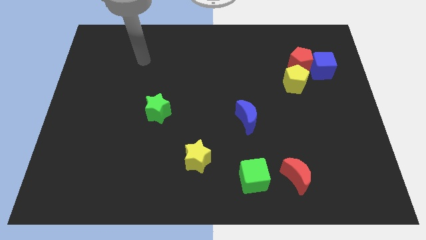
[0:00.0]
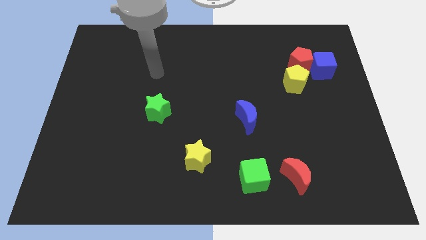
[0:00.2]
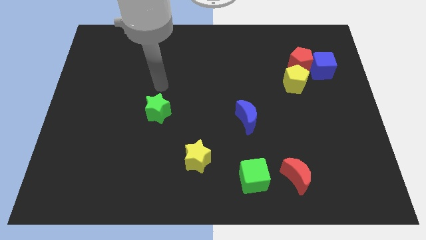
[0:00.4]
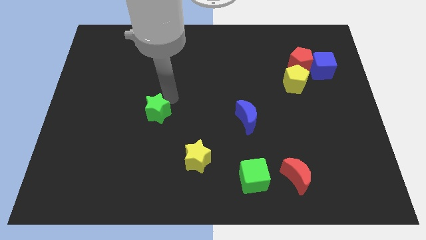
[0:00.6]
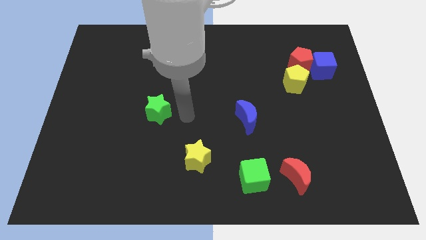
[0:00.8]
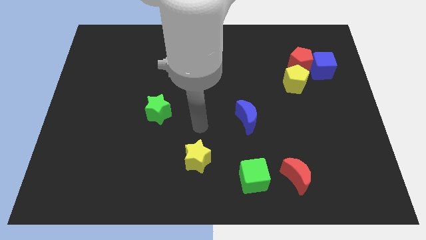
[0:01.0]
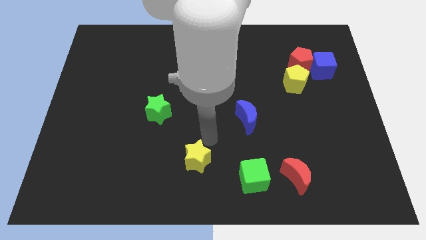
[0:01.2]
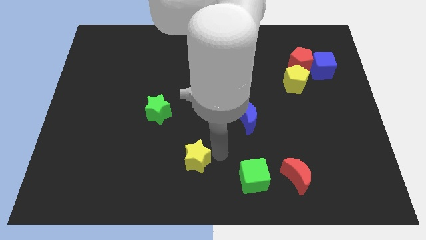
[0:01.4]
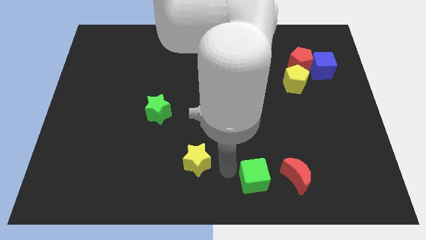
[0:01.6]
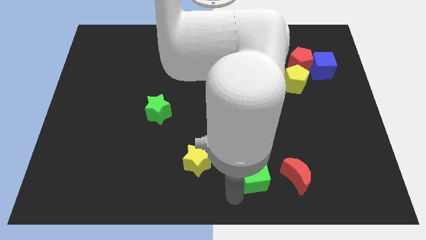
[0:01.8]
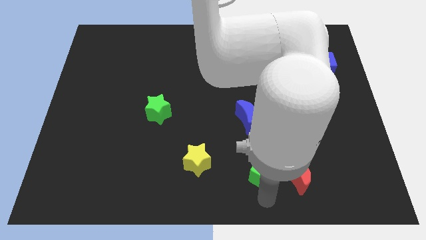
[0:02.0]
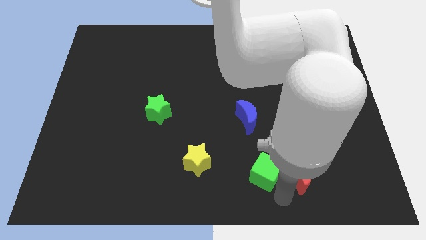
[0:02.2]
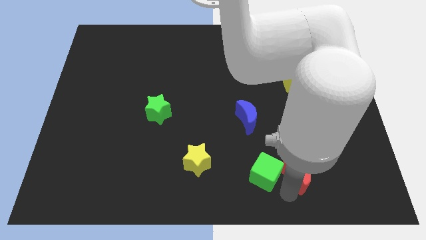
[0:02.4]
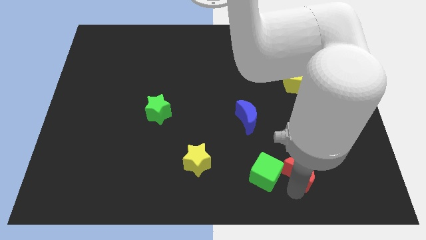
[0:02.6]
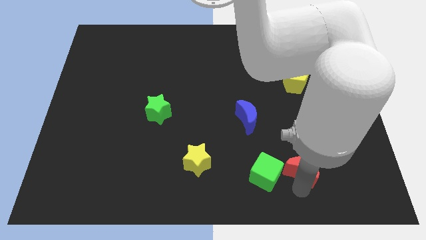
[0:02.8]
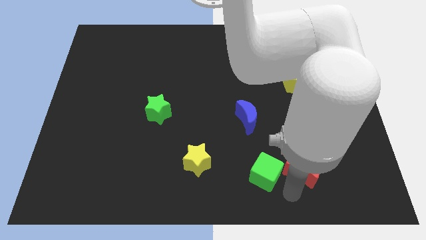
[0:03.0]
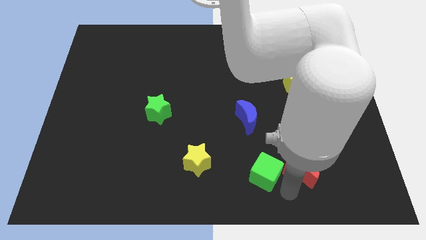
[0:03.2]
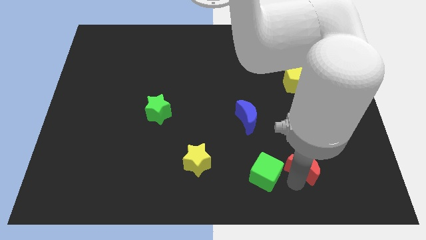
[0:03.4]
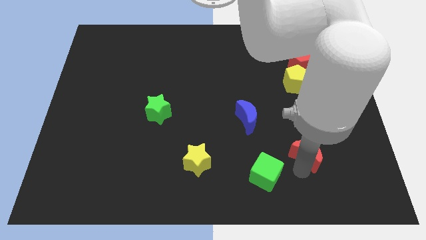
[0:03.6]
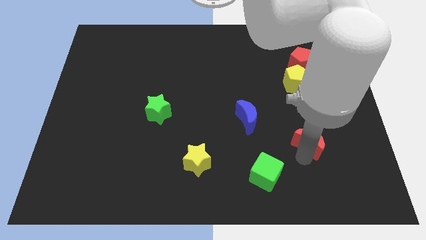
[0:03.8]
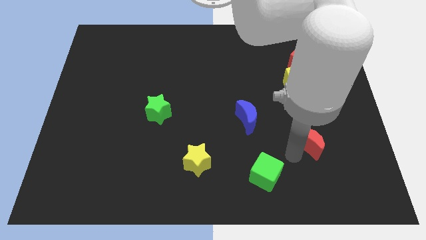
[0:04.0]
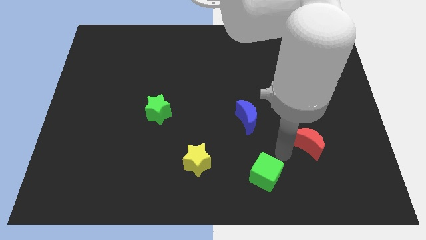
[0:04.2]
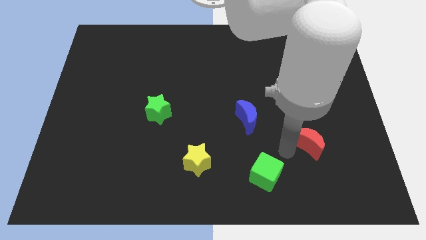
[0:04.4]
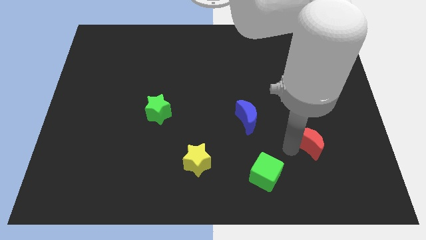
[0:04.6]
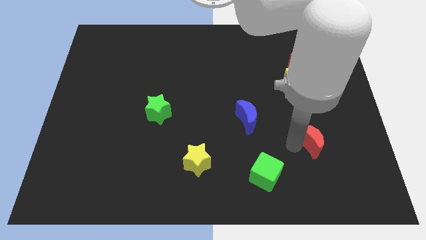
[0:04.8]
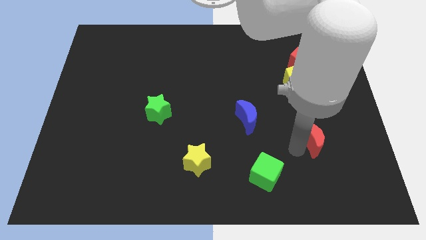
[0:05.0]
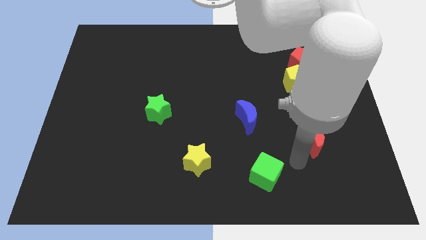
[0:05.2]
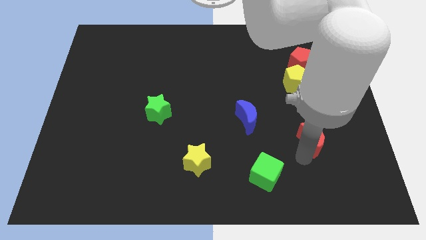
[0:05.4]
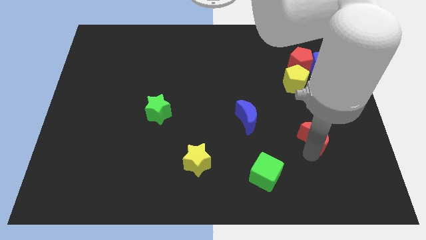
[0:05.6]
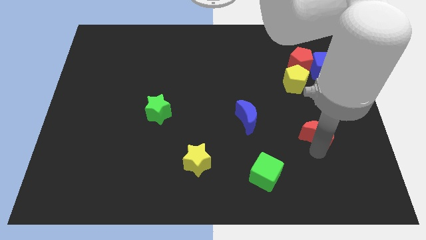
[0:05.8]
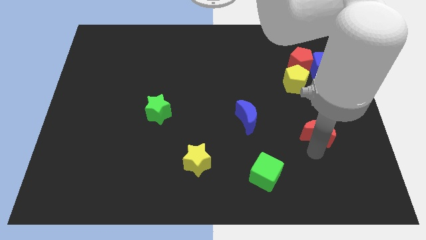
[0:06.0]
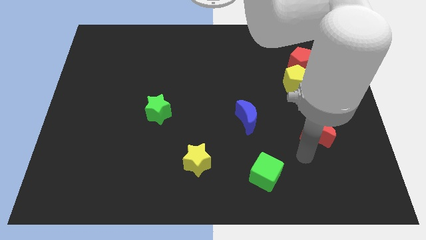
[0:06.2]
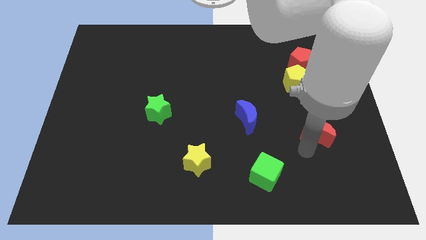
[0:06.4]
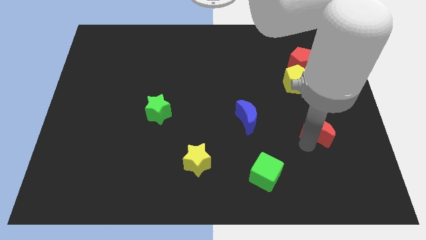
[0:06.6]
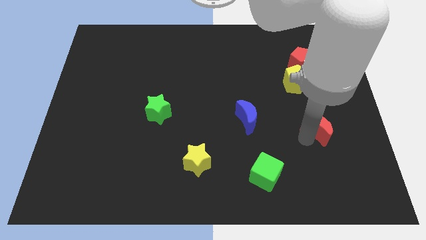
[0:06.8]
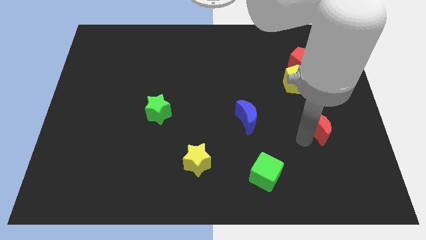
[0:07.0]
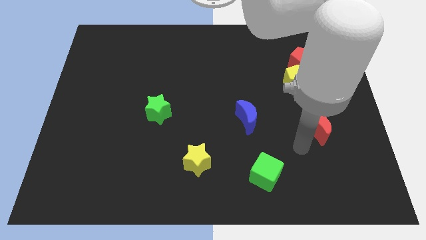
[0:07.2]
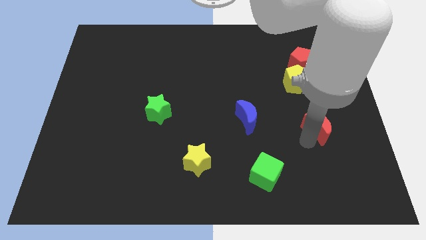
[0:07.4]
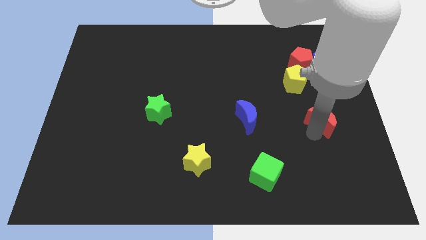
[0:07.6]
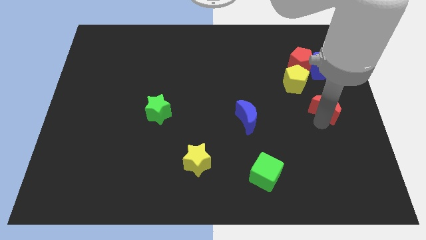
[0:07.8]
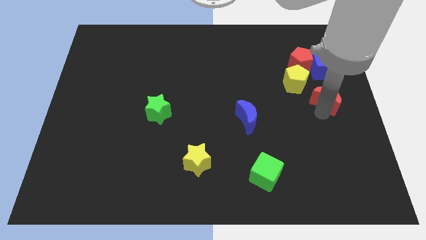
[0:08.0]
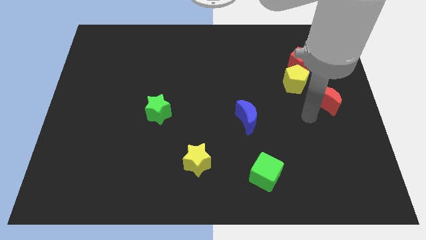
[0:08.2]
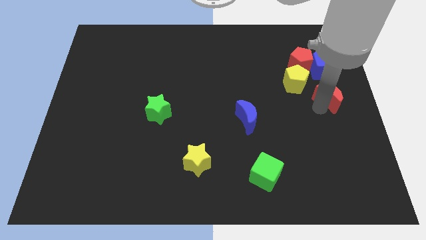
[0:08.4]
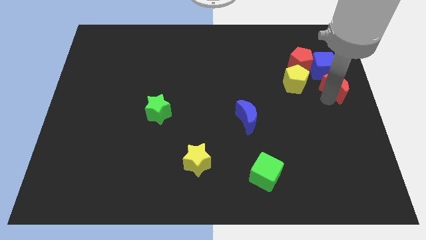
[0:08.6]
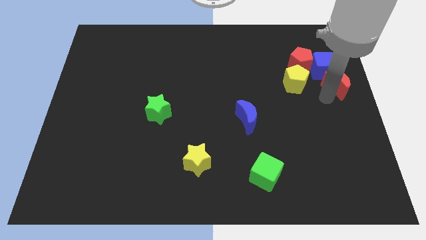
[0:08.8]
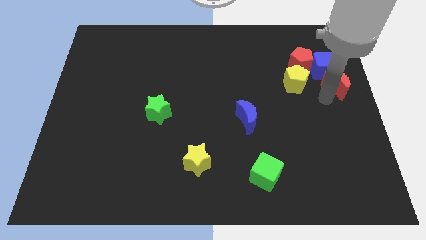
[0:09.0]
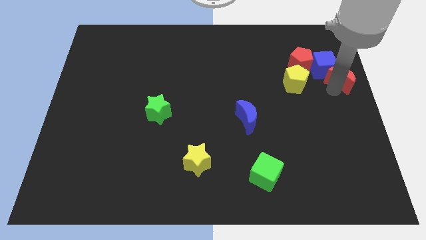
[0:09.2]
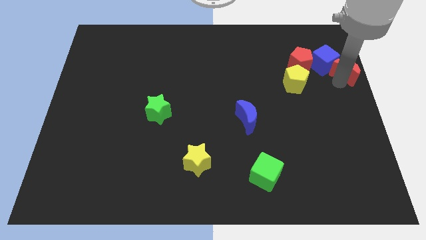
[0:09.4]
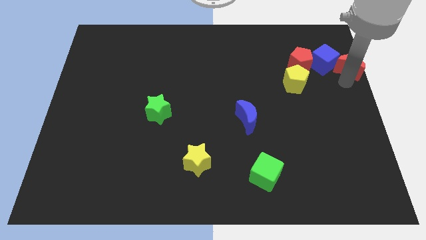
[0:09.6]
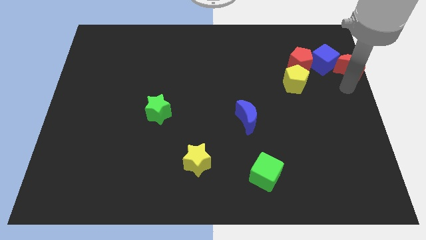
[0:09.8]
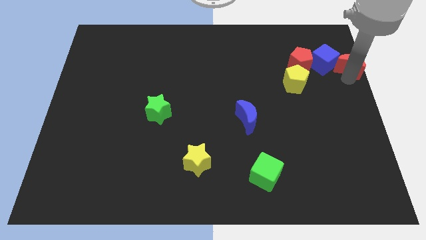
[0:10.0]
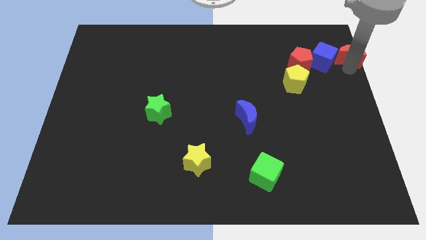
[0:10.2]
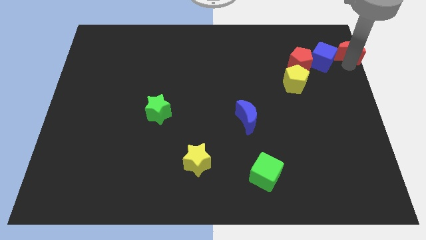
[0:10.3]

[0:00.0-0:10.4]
push the red moon to the upper right corner

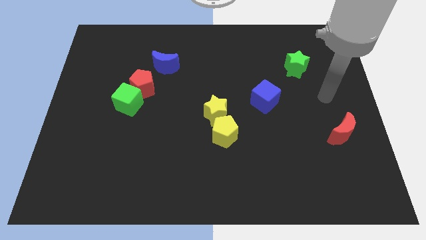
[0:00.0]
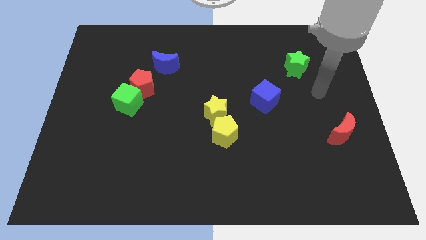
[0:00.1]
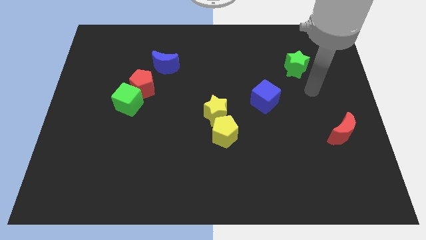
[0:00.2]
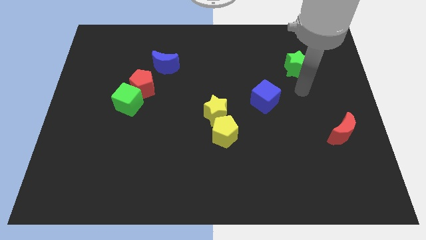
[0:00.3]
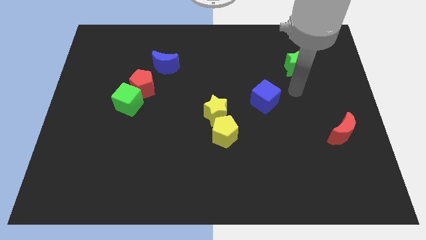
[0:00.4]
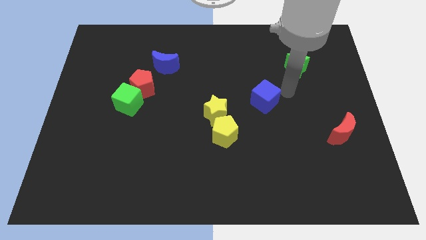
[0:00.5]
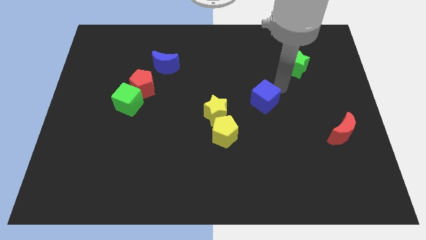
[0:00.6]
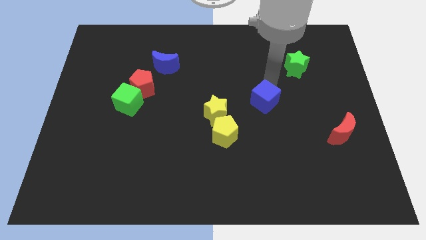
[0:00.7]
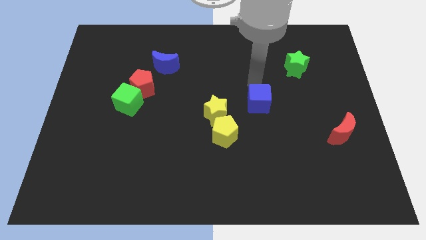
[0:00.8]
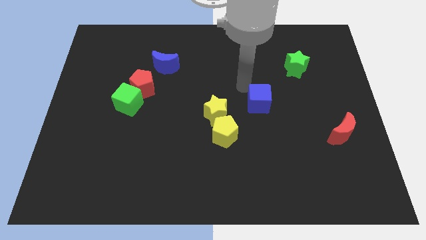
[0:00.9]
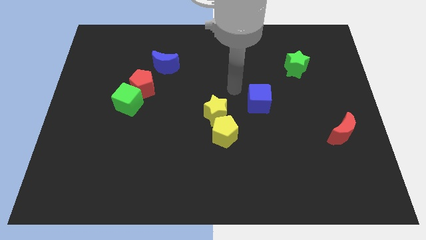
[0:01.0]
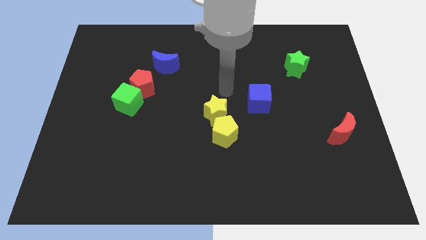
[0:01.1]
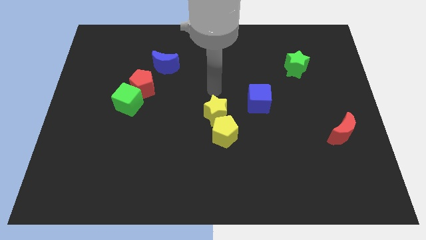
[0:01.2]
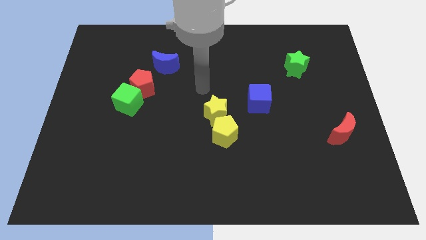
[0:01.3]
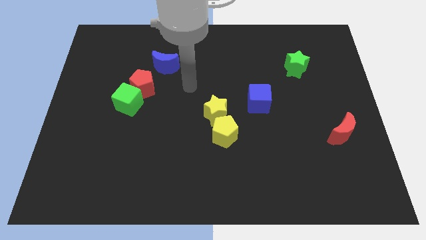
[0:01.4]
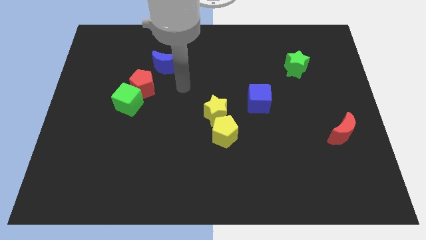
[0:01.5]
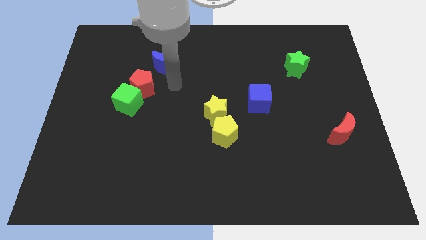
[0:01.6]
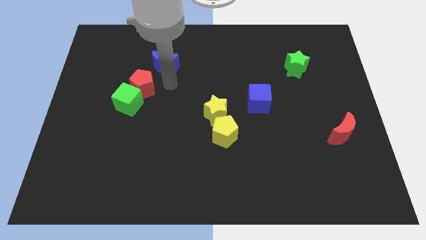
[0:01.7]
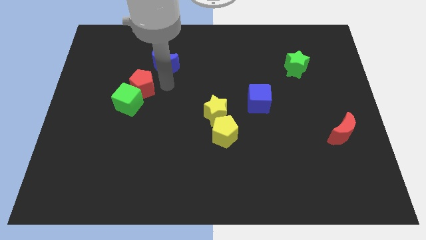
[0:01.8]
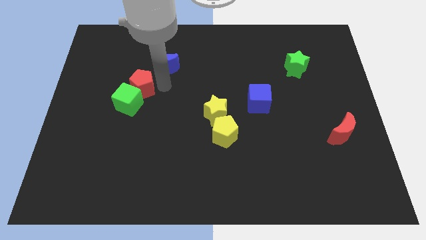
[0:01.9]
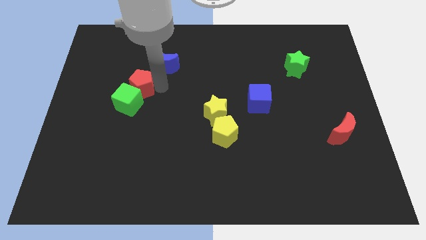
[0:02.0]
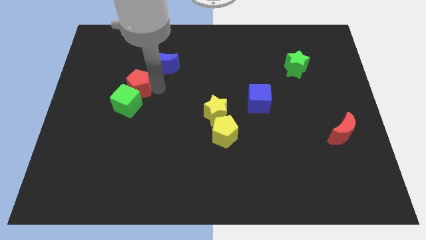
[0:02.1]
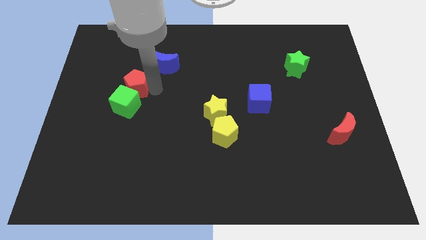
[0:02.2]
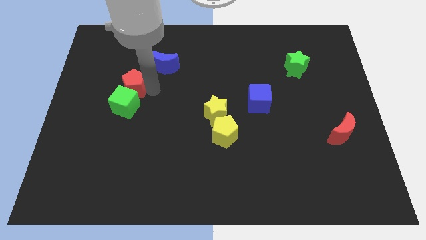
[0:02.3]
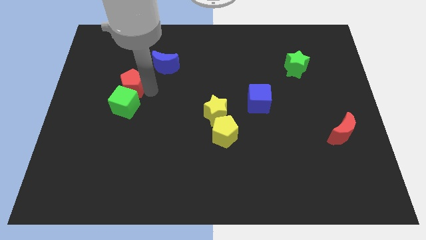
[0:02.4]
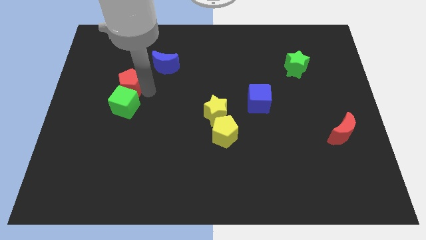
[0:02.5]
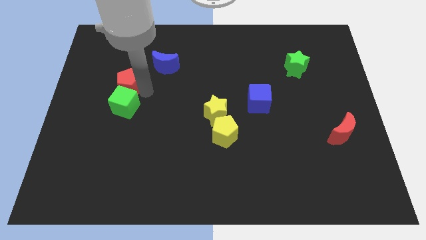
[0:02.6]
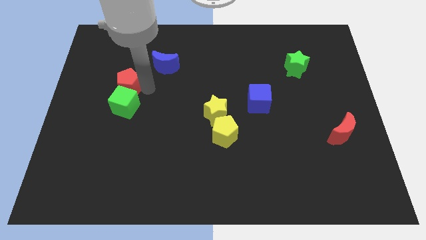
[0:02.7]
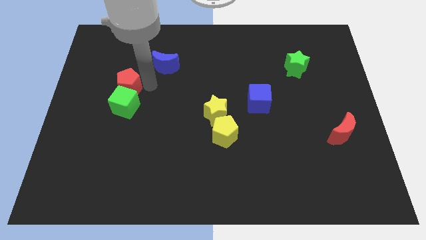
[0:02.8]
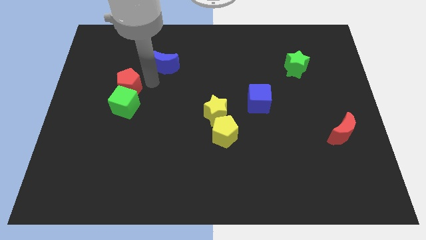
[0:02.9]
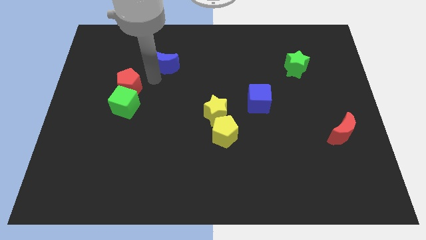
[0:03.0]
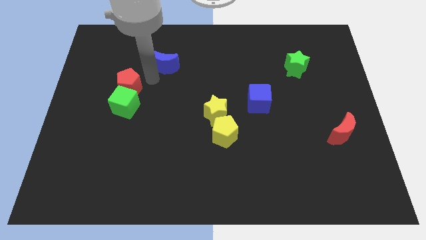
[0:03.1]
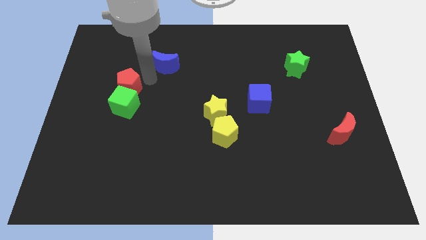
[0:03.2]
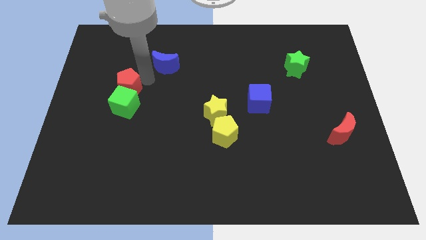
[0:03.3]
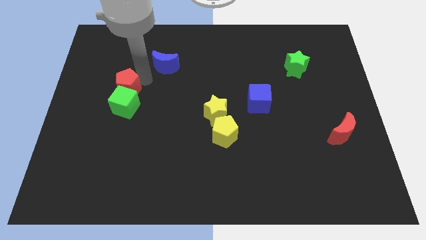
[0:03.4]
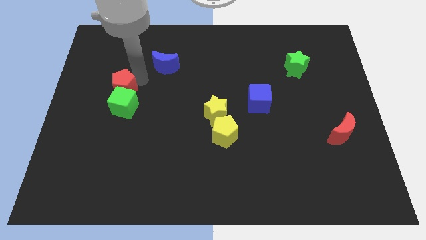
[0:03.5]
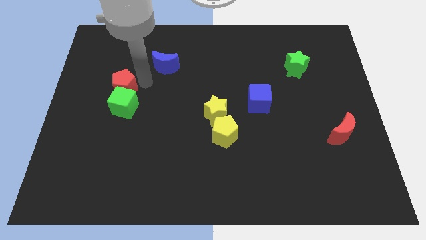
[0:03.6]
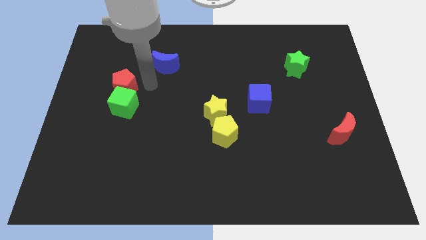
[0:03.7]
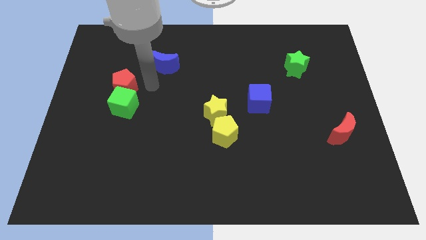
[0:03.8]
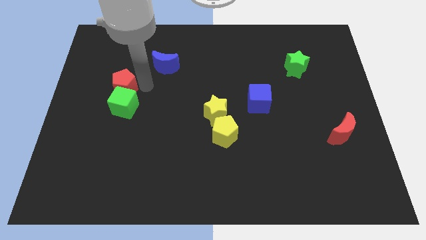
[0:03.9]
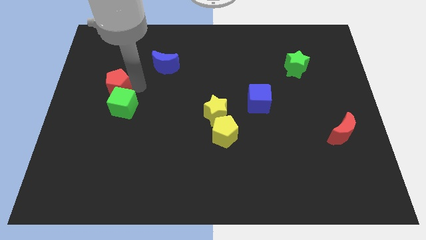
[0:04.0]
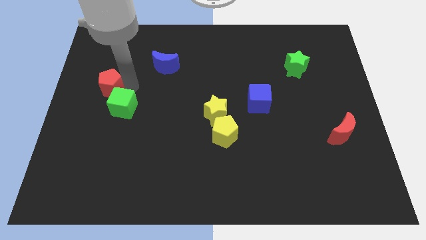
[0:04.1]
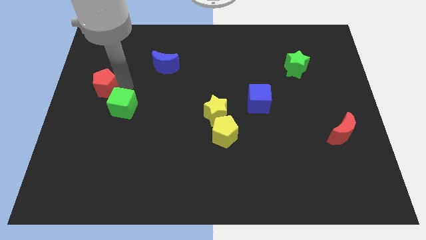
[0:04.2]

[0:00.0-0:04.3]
put the red pentagon to the center left
